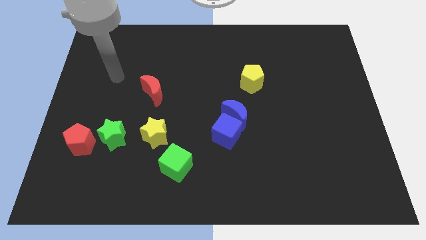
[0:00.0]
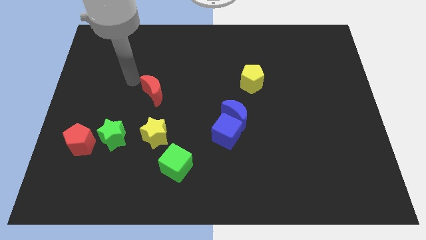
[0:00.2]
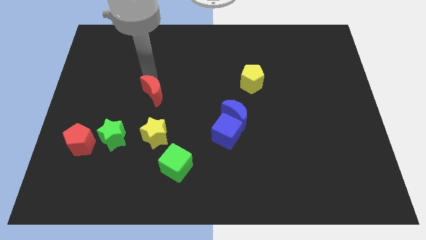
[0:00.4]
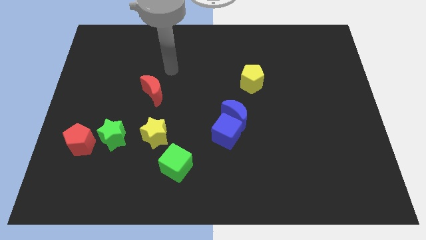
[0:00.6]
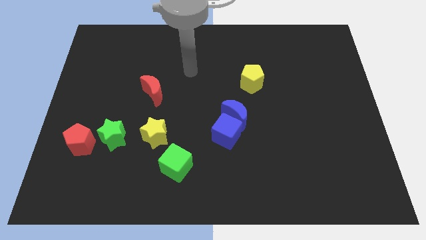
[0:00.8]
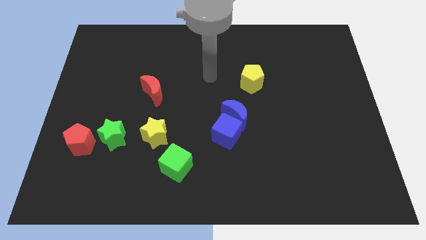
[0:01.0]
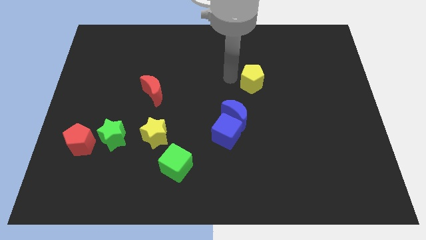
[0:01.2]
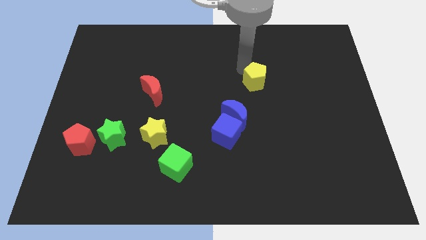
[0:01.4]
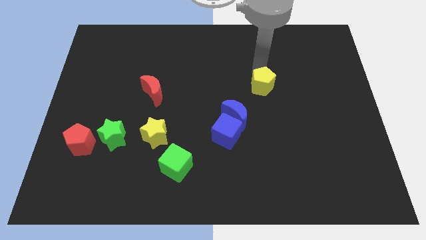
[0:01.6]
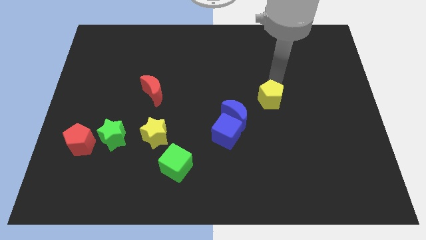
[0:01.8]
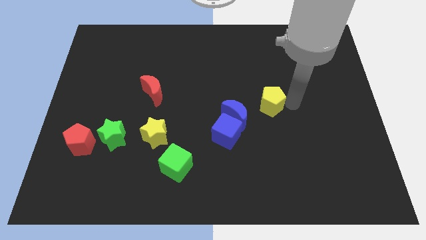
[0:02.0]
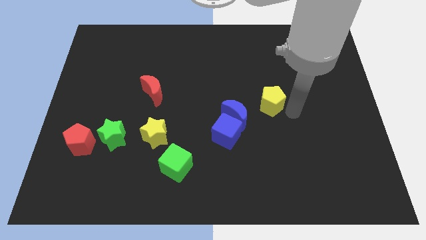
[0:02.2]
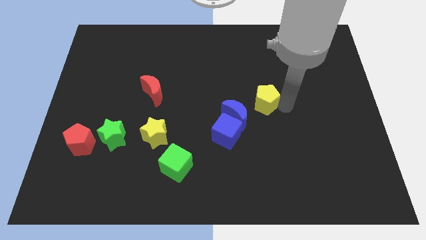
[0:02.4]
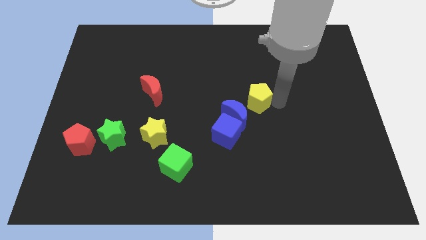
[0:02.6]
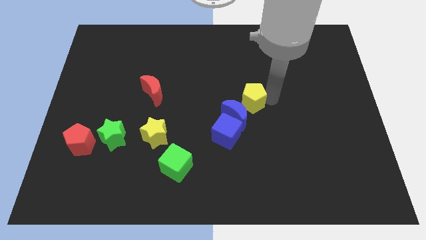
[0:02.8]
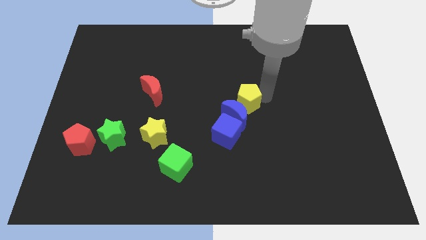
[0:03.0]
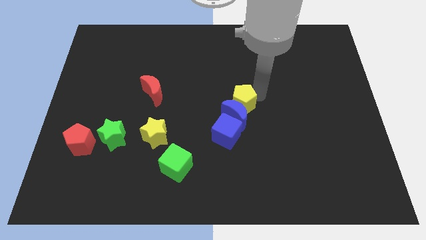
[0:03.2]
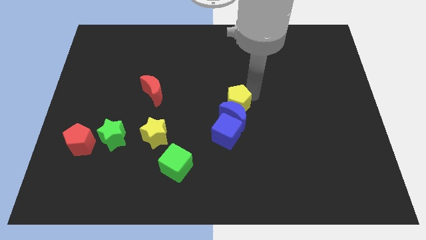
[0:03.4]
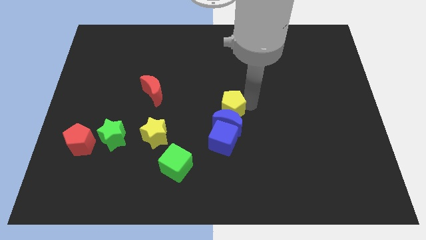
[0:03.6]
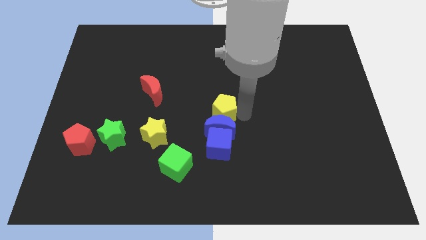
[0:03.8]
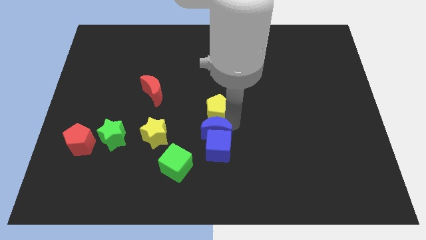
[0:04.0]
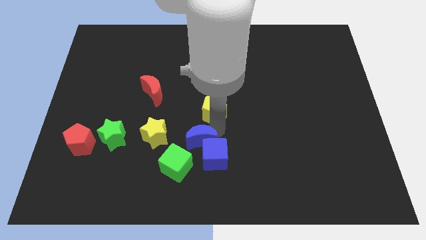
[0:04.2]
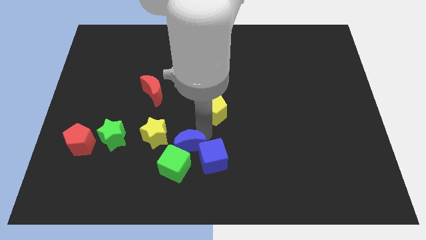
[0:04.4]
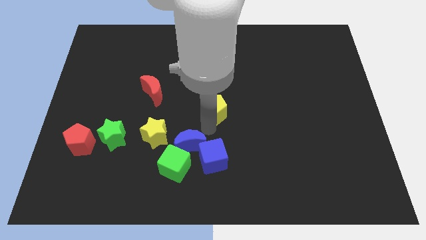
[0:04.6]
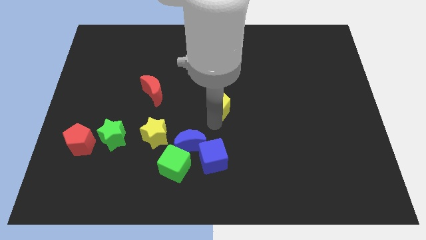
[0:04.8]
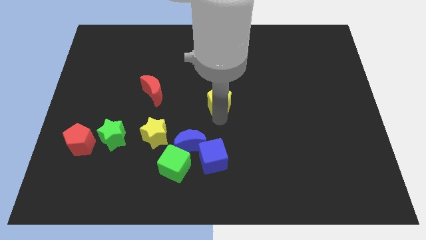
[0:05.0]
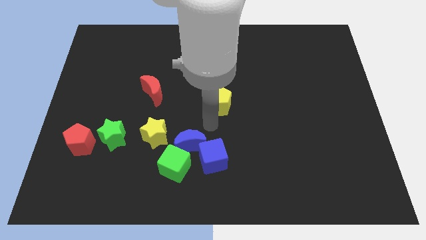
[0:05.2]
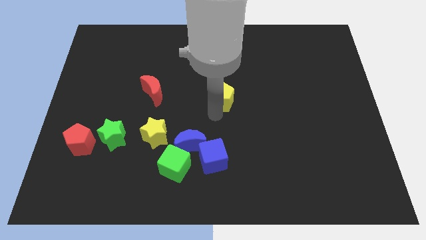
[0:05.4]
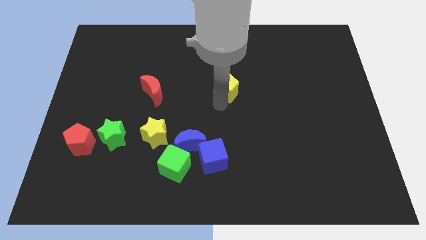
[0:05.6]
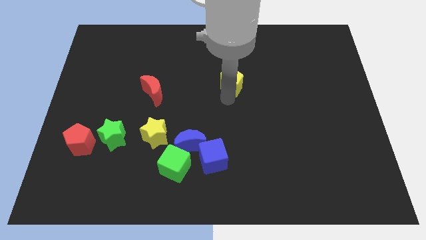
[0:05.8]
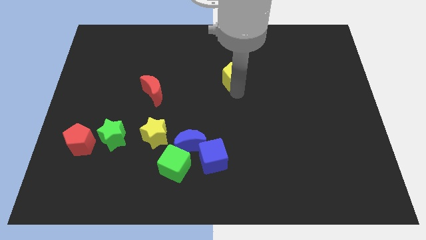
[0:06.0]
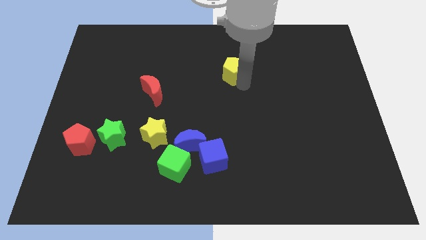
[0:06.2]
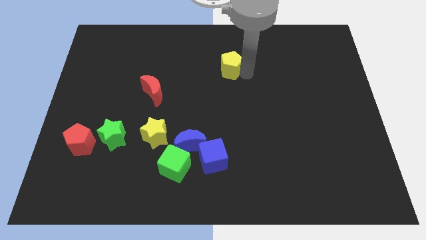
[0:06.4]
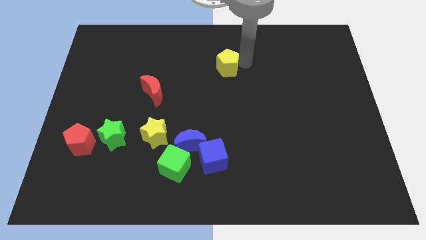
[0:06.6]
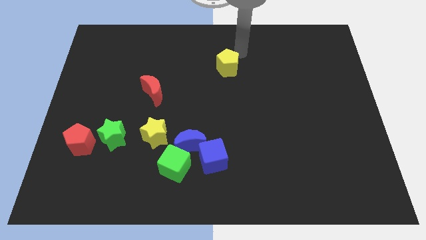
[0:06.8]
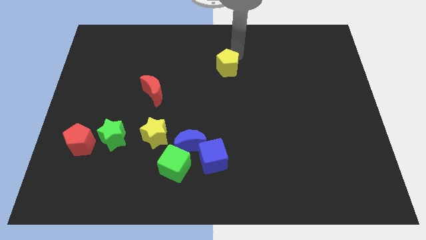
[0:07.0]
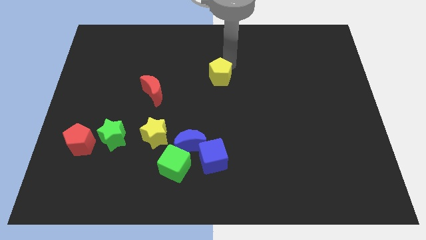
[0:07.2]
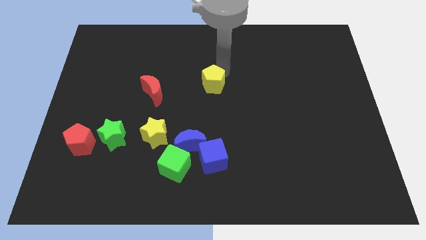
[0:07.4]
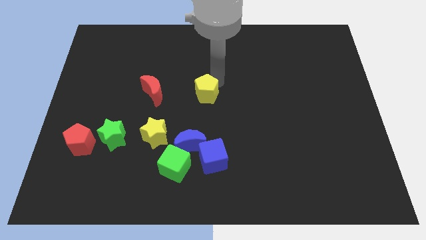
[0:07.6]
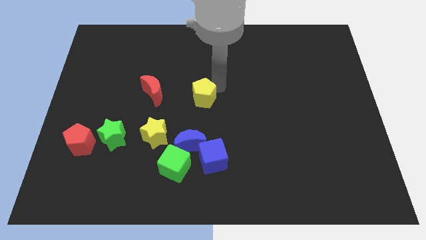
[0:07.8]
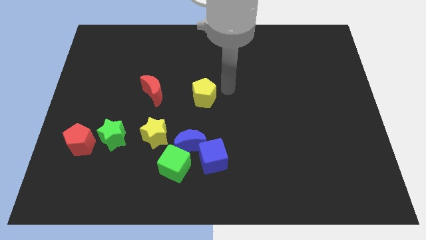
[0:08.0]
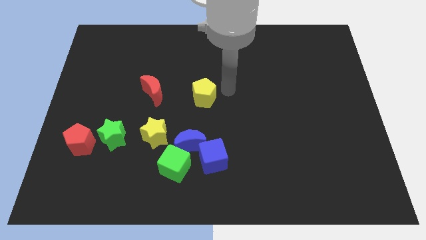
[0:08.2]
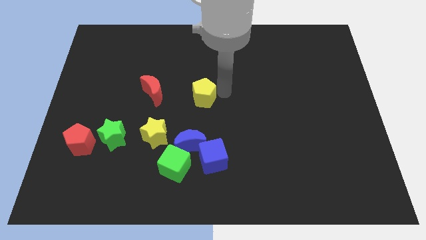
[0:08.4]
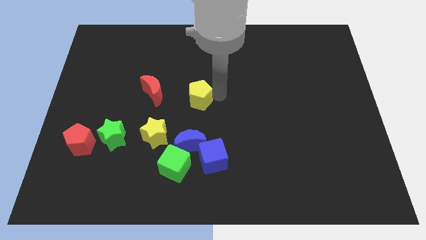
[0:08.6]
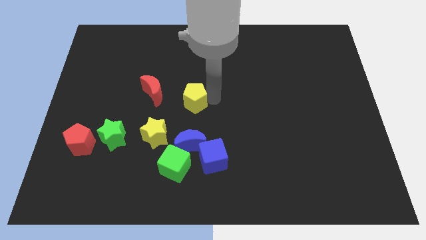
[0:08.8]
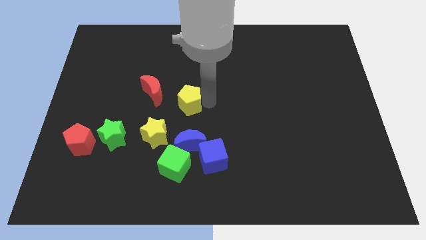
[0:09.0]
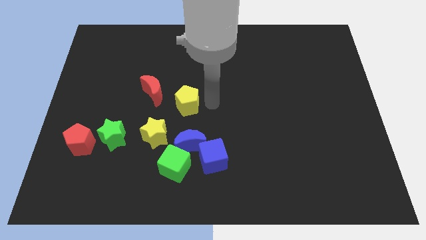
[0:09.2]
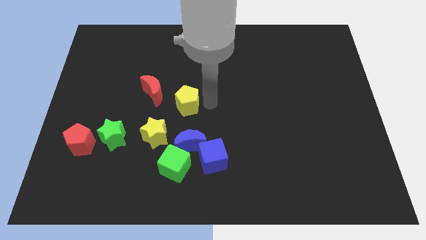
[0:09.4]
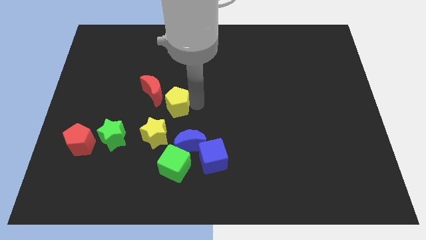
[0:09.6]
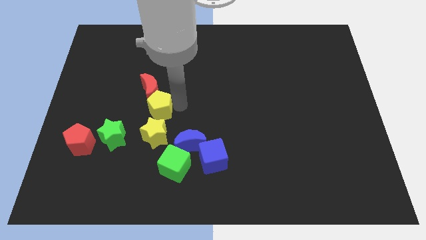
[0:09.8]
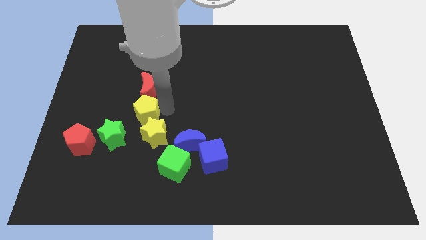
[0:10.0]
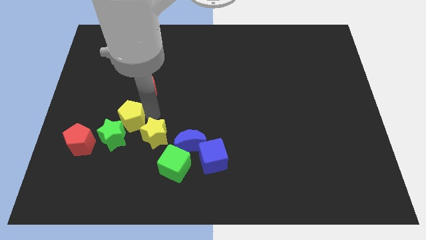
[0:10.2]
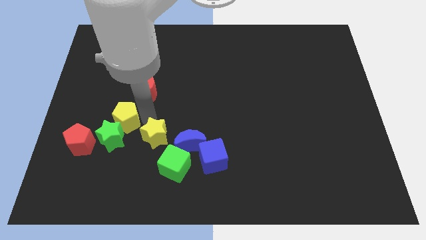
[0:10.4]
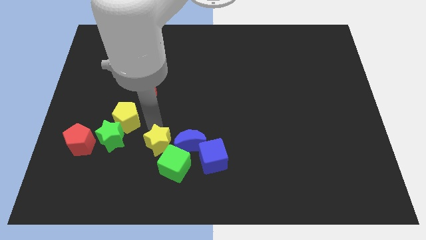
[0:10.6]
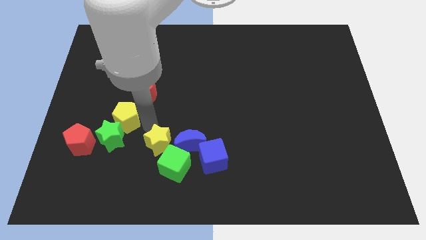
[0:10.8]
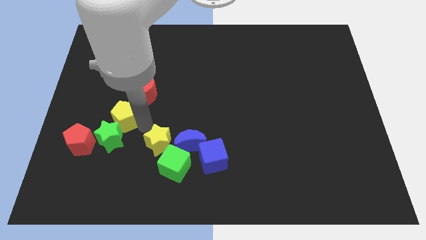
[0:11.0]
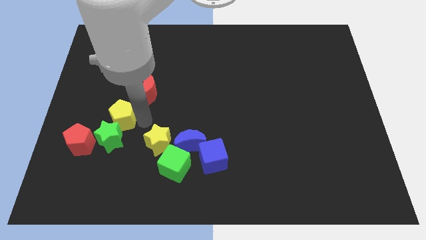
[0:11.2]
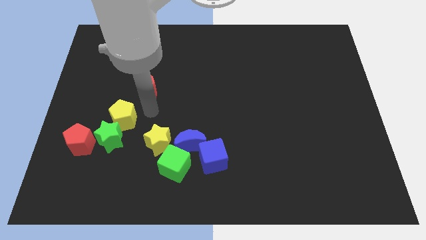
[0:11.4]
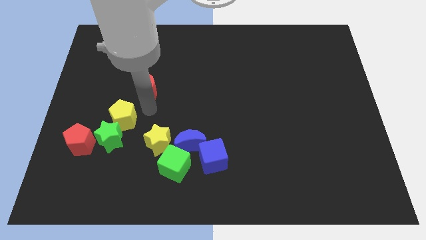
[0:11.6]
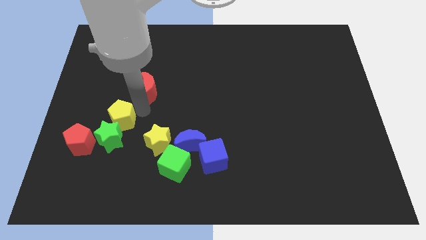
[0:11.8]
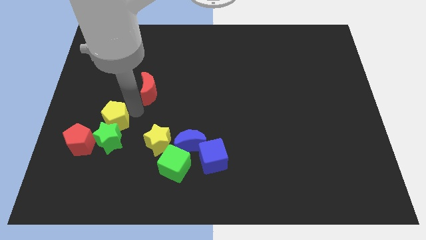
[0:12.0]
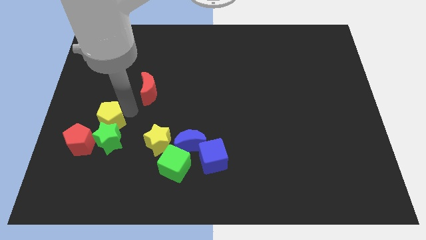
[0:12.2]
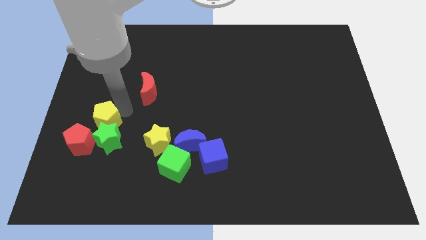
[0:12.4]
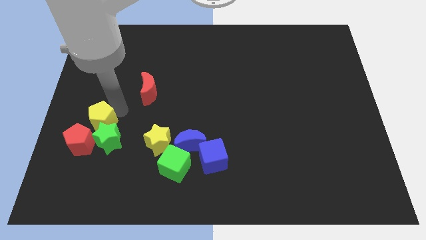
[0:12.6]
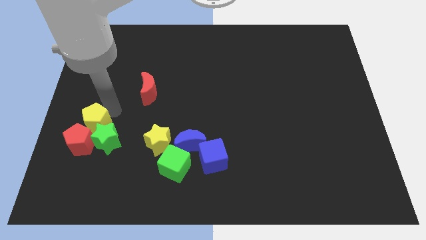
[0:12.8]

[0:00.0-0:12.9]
put the yellow pentagon next to the red pentagon

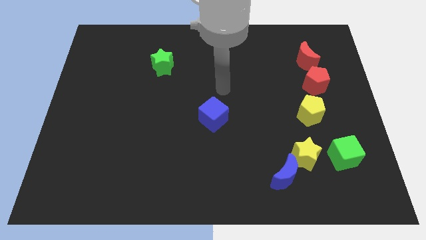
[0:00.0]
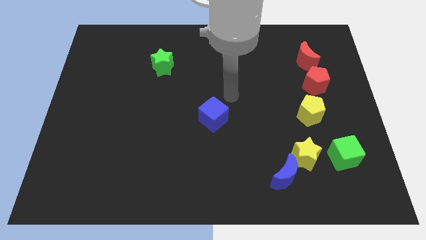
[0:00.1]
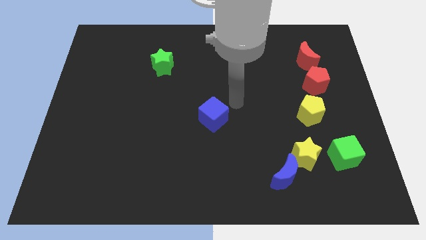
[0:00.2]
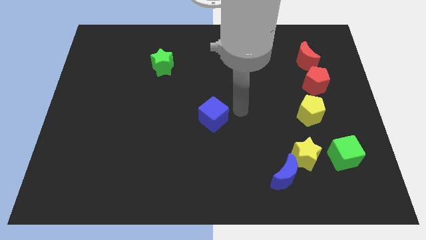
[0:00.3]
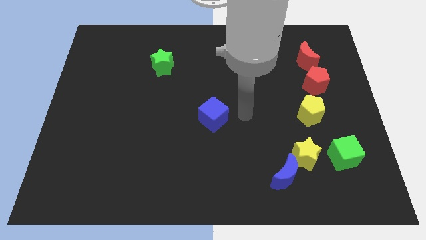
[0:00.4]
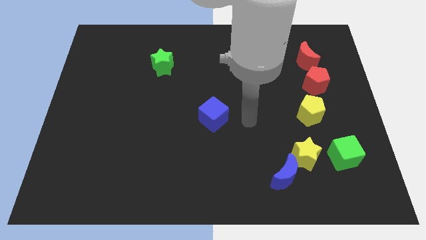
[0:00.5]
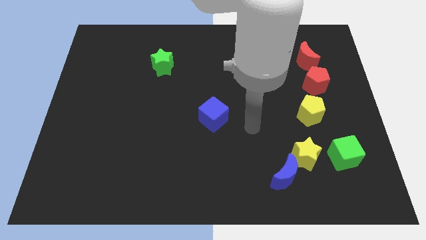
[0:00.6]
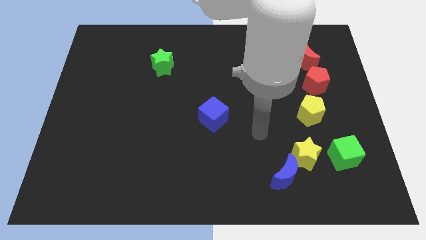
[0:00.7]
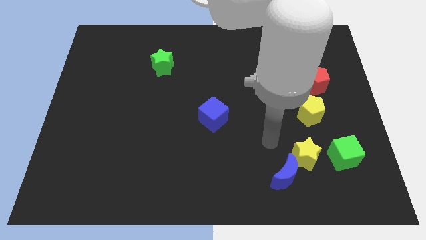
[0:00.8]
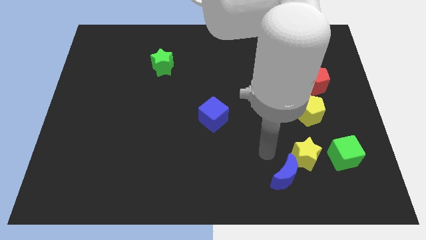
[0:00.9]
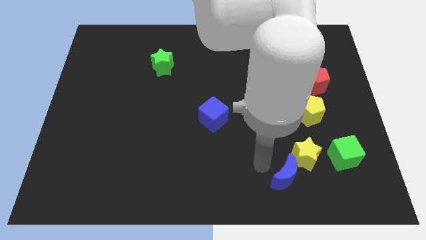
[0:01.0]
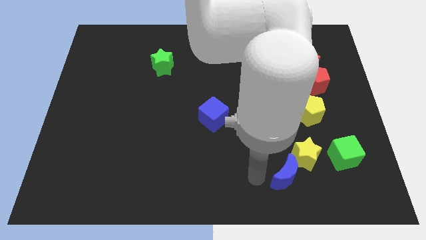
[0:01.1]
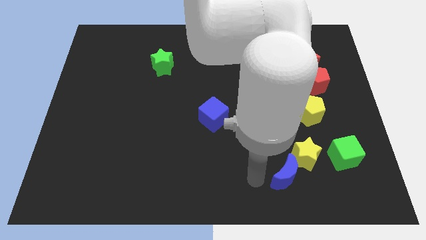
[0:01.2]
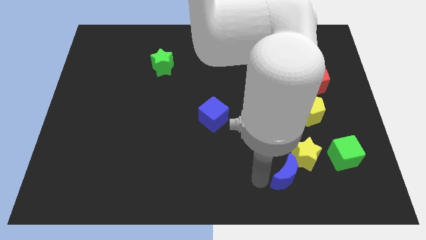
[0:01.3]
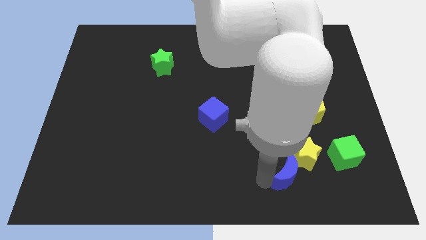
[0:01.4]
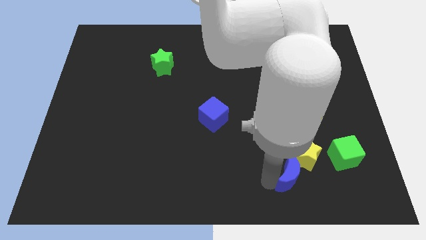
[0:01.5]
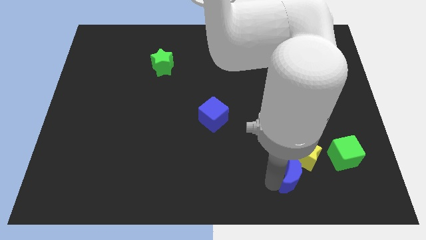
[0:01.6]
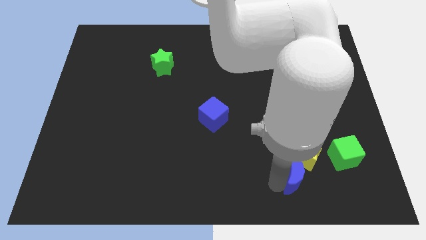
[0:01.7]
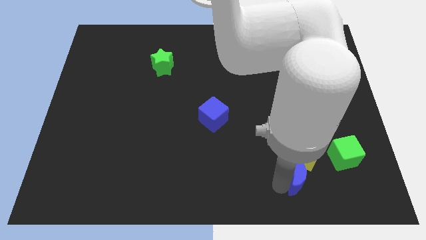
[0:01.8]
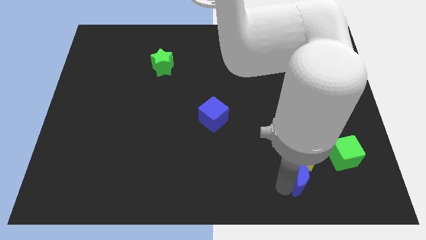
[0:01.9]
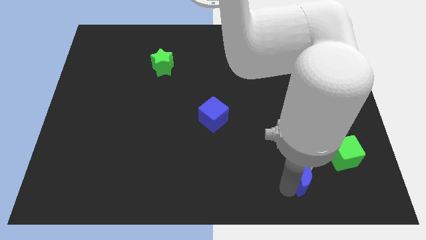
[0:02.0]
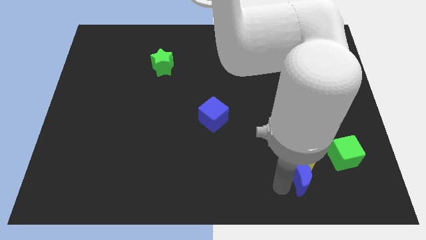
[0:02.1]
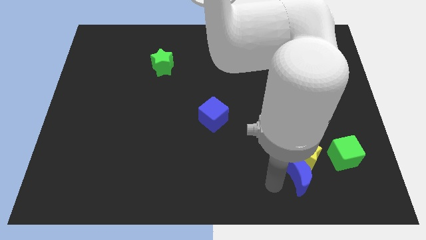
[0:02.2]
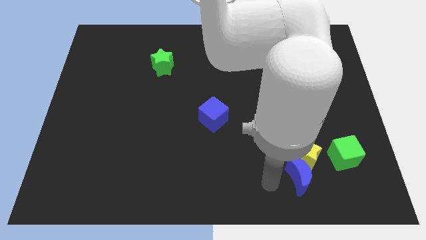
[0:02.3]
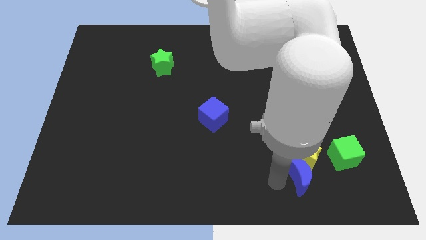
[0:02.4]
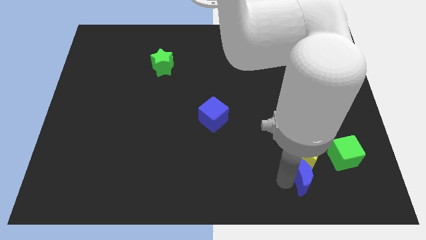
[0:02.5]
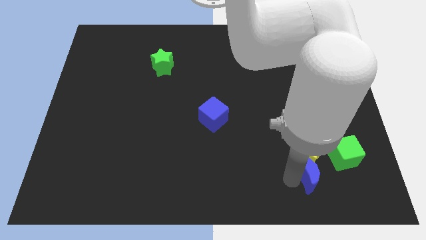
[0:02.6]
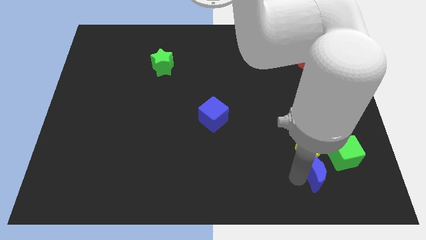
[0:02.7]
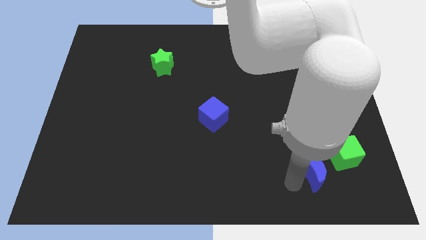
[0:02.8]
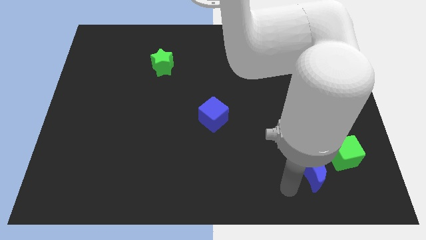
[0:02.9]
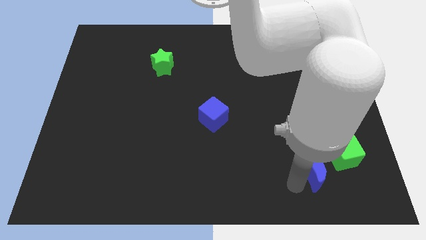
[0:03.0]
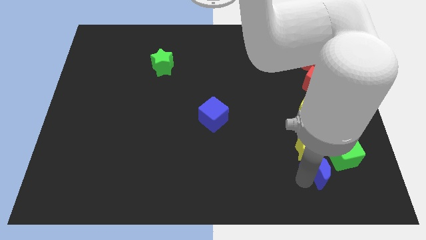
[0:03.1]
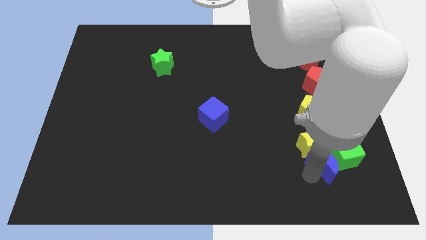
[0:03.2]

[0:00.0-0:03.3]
put the blue moon next to the green cube
